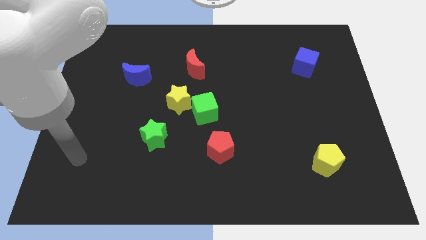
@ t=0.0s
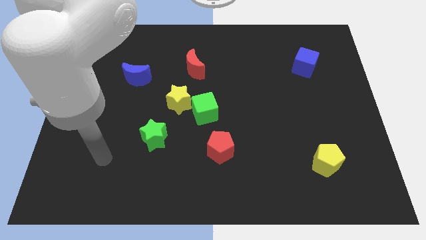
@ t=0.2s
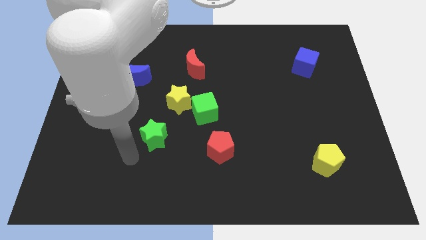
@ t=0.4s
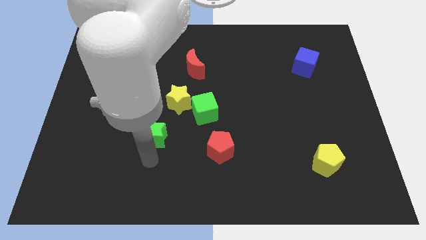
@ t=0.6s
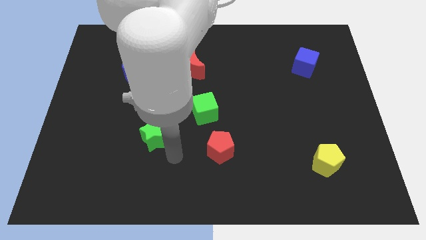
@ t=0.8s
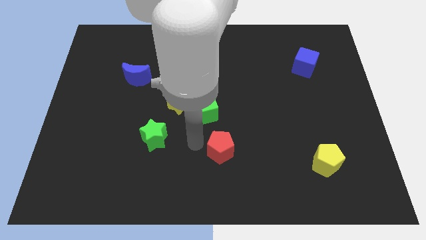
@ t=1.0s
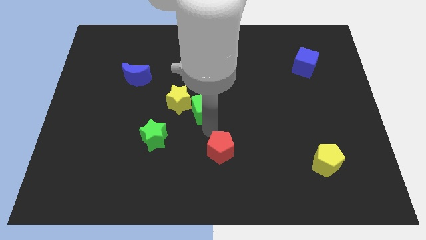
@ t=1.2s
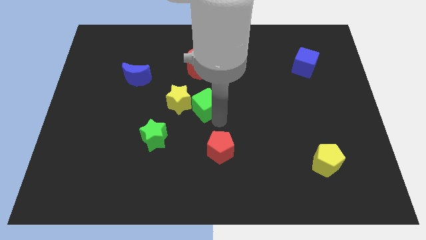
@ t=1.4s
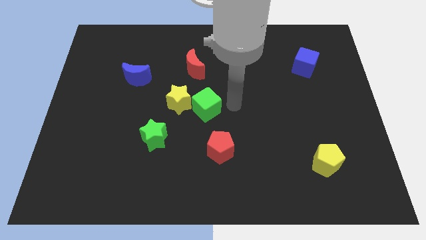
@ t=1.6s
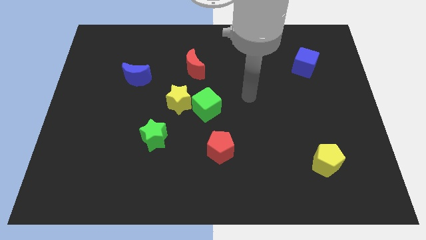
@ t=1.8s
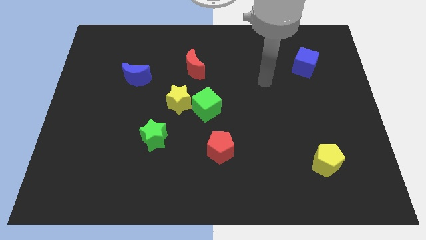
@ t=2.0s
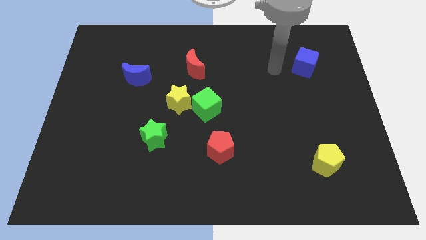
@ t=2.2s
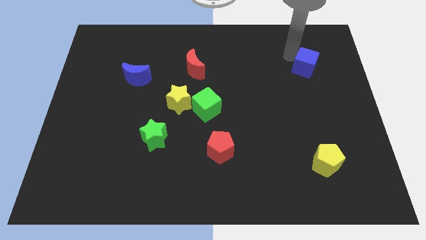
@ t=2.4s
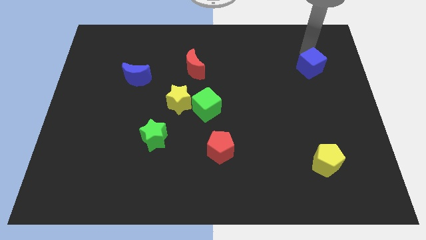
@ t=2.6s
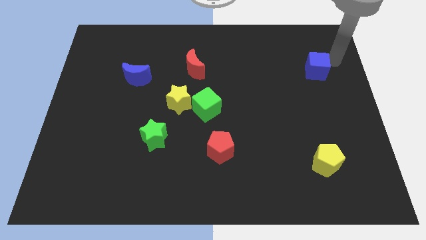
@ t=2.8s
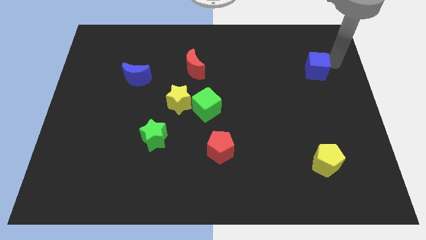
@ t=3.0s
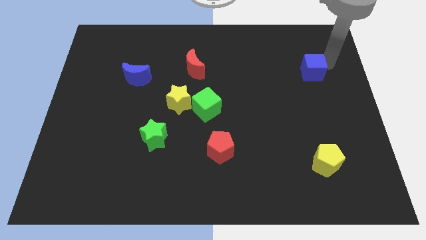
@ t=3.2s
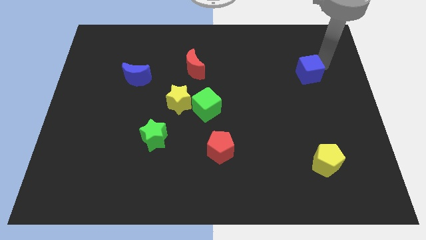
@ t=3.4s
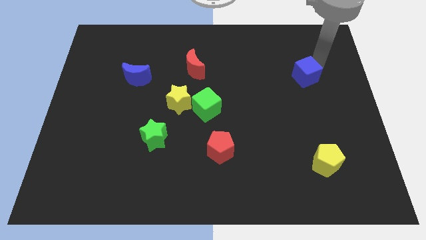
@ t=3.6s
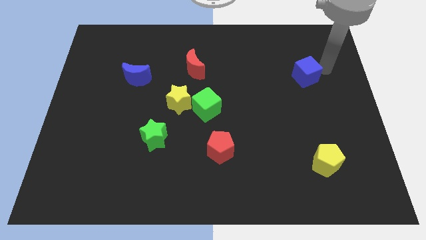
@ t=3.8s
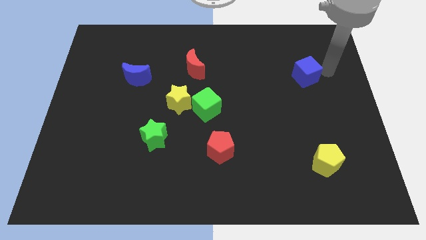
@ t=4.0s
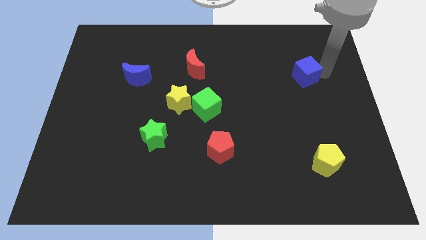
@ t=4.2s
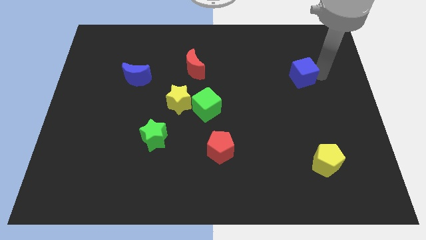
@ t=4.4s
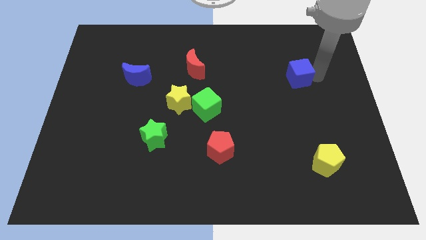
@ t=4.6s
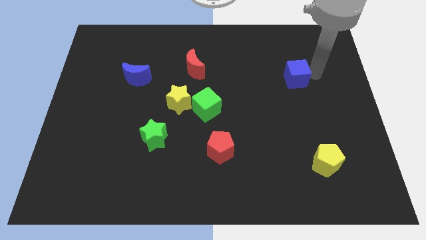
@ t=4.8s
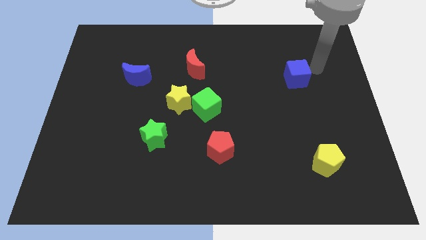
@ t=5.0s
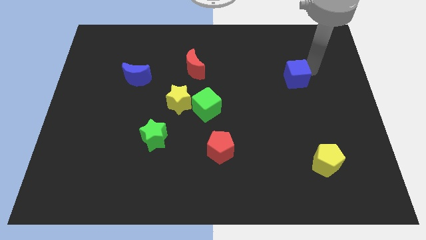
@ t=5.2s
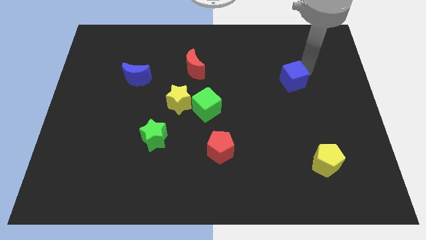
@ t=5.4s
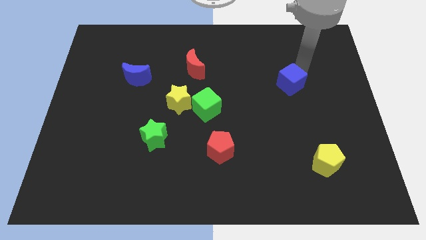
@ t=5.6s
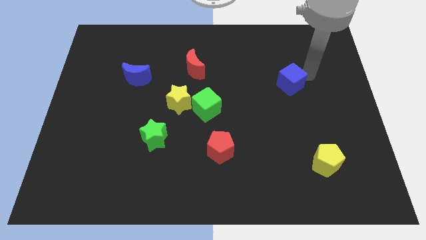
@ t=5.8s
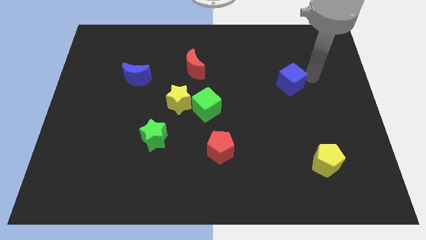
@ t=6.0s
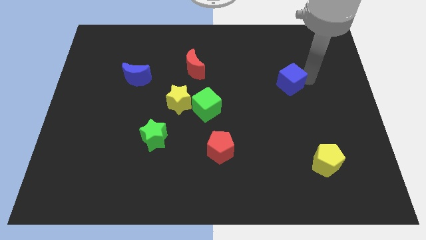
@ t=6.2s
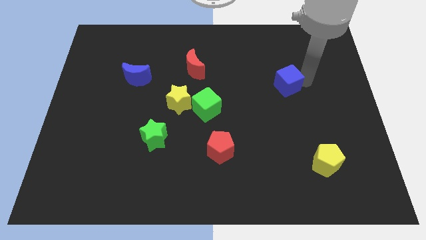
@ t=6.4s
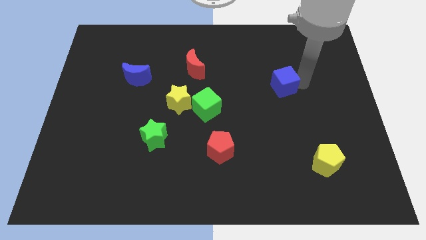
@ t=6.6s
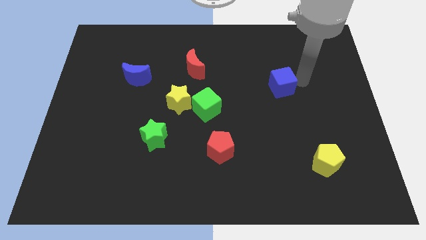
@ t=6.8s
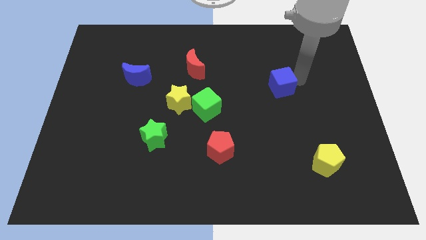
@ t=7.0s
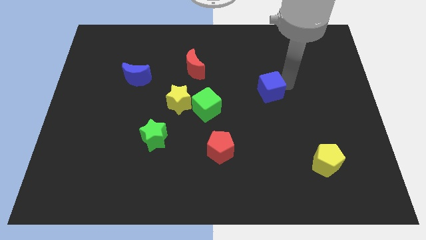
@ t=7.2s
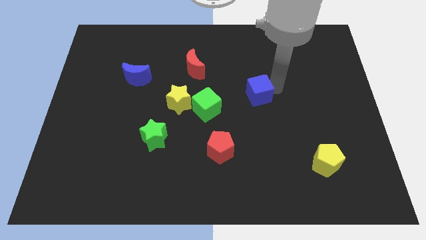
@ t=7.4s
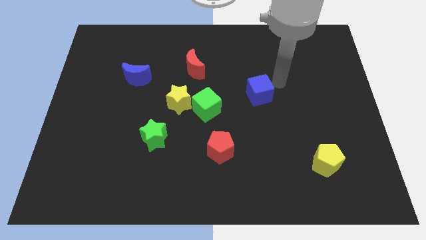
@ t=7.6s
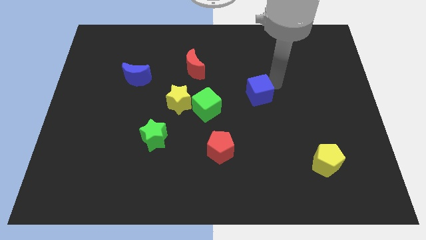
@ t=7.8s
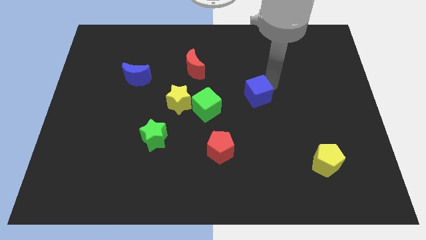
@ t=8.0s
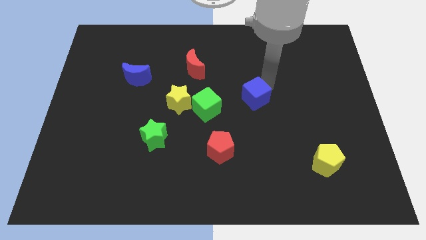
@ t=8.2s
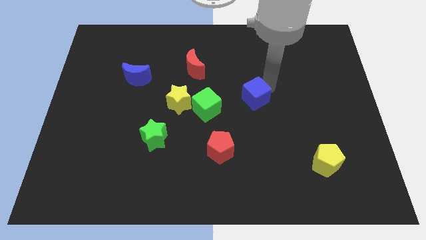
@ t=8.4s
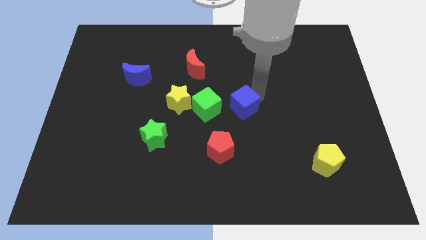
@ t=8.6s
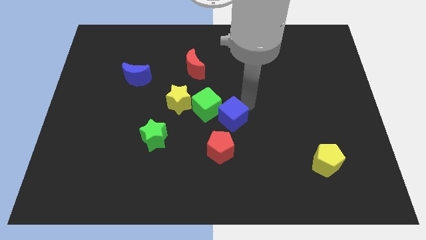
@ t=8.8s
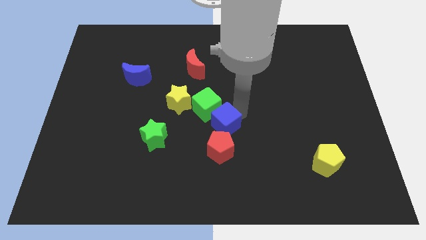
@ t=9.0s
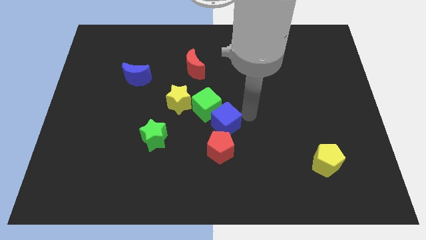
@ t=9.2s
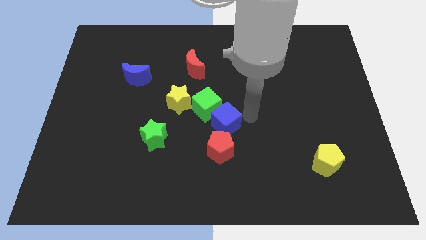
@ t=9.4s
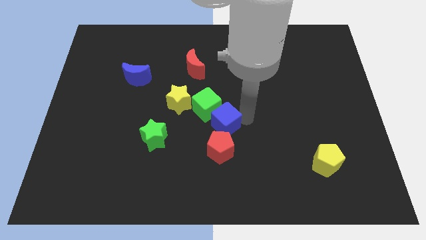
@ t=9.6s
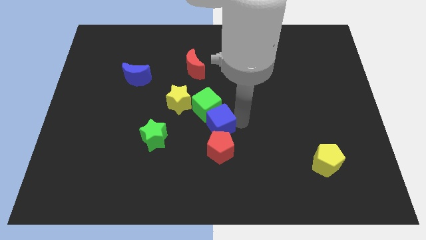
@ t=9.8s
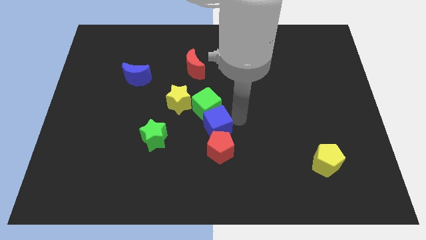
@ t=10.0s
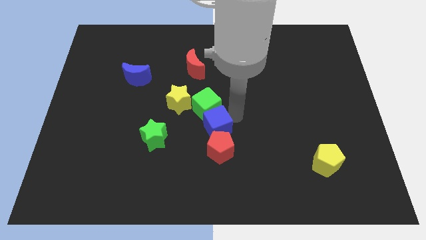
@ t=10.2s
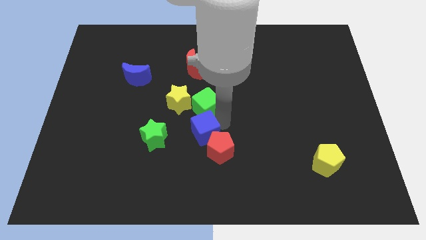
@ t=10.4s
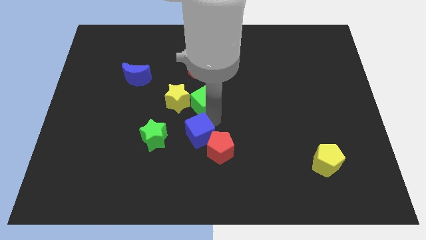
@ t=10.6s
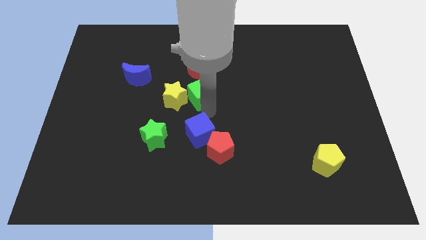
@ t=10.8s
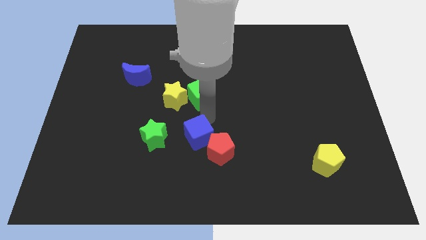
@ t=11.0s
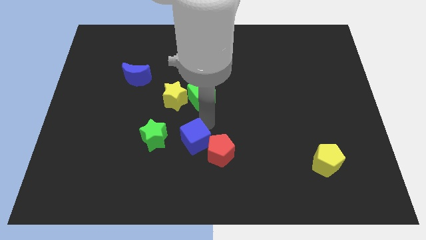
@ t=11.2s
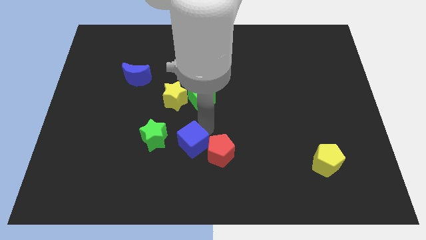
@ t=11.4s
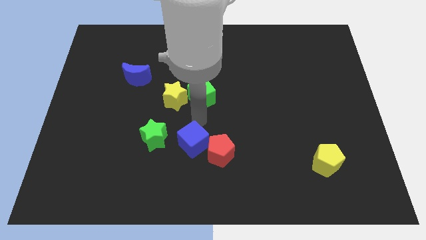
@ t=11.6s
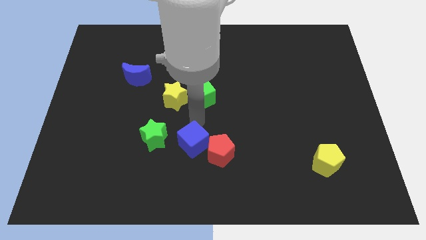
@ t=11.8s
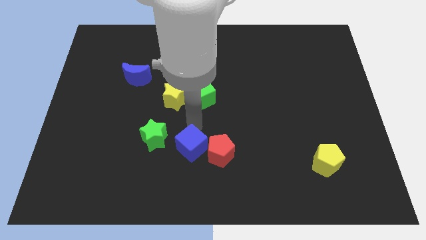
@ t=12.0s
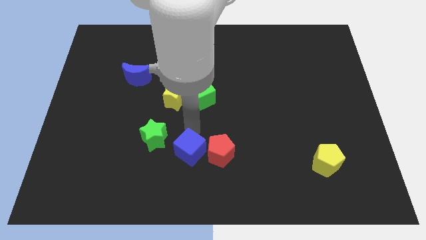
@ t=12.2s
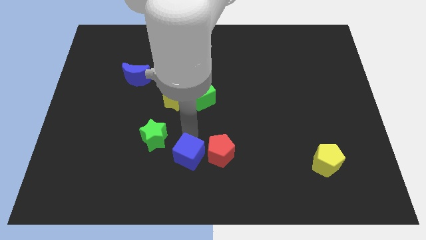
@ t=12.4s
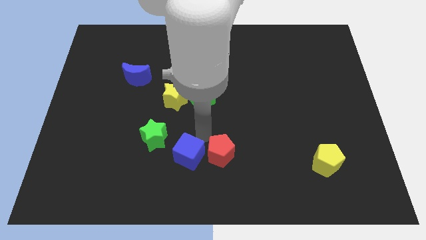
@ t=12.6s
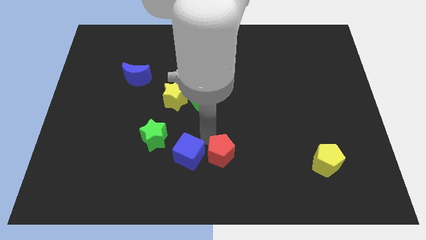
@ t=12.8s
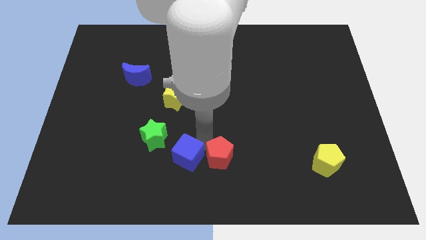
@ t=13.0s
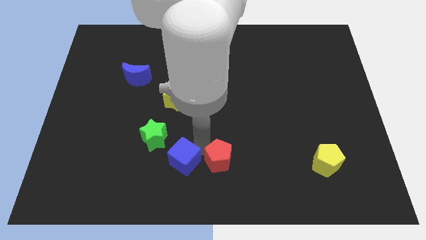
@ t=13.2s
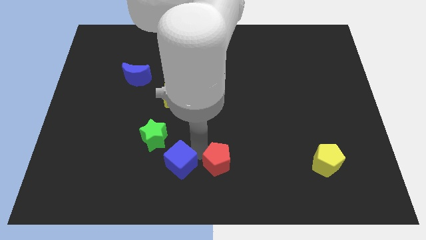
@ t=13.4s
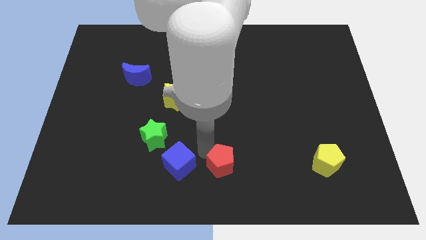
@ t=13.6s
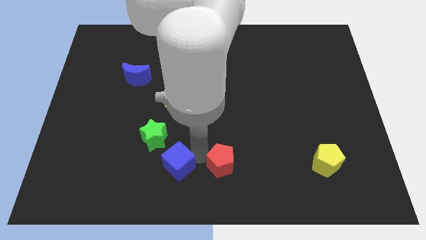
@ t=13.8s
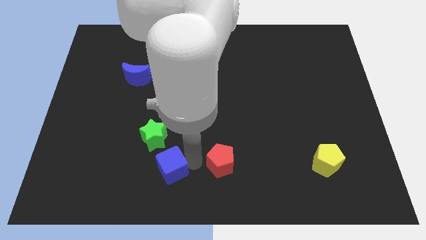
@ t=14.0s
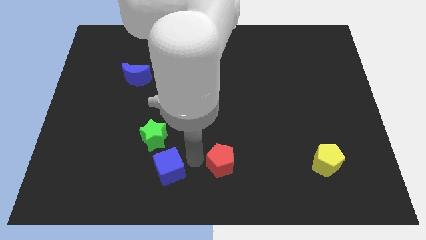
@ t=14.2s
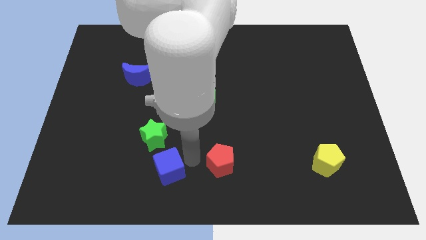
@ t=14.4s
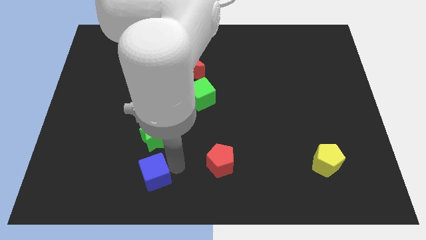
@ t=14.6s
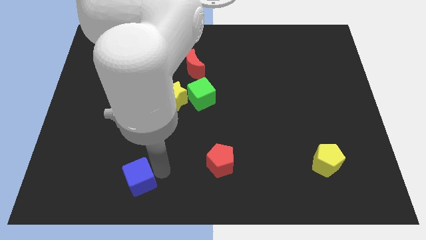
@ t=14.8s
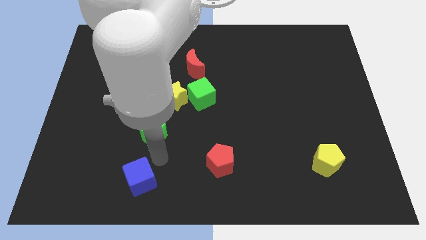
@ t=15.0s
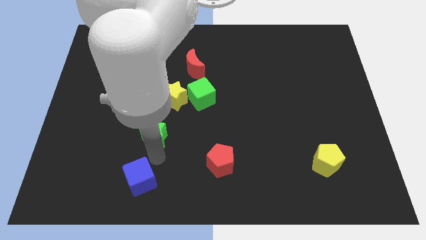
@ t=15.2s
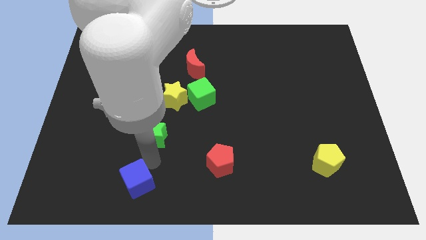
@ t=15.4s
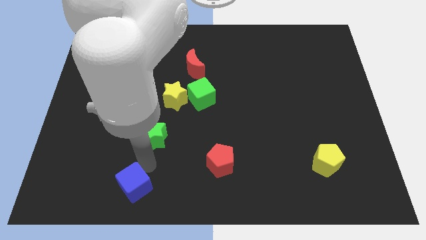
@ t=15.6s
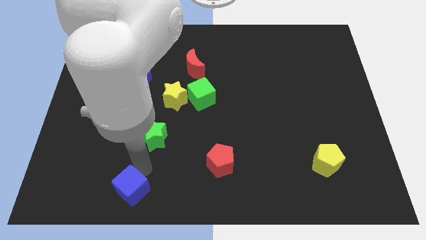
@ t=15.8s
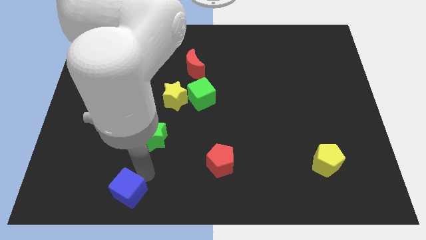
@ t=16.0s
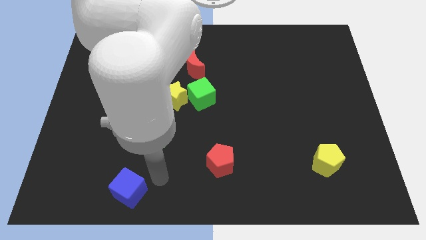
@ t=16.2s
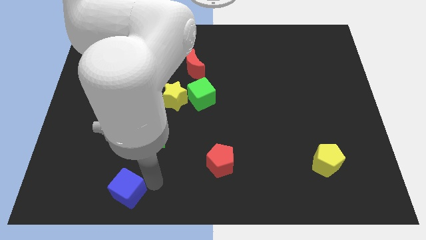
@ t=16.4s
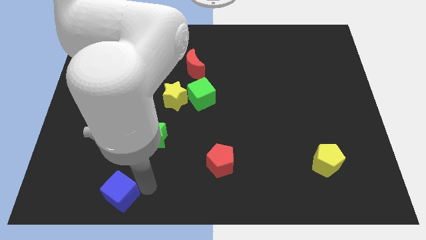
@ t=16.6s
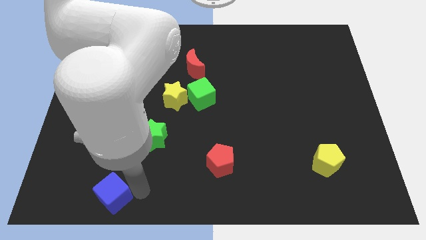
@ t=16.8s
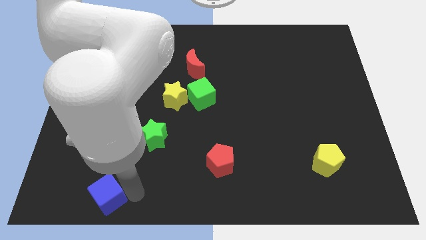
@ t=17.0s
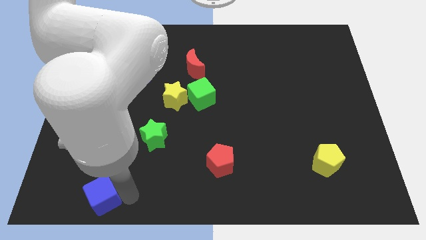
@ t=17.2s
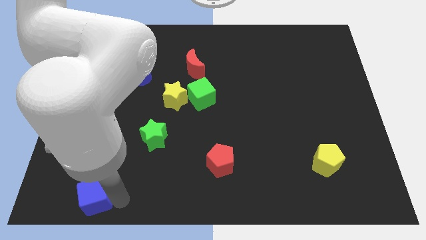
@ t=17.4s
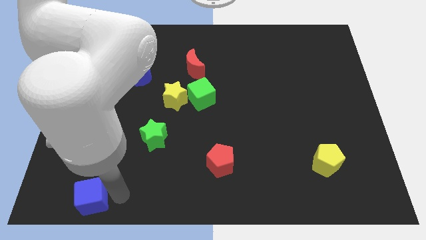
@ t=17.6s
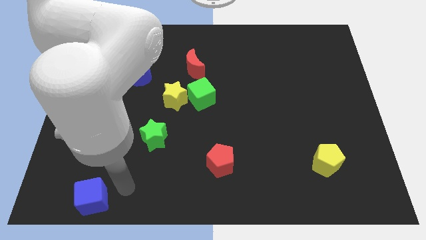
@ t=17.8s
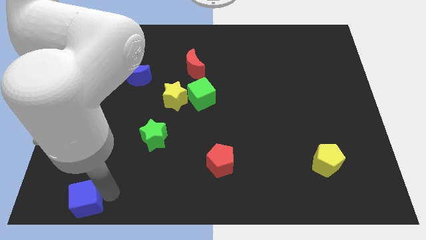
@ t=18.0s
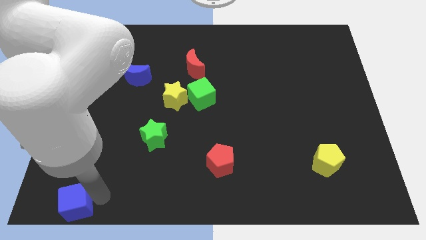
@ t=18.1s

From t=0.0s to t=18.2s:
move the blue cube to the bottom left corner
